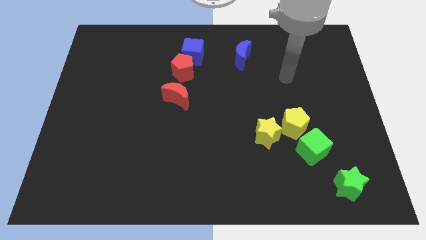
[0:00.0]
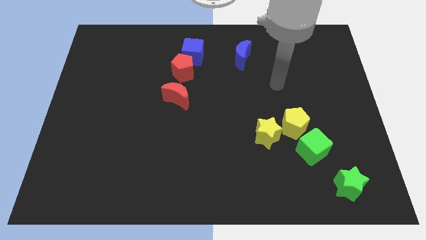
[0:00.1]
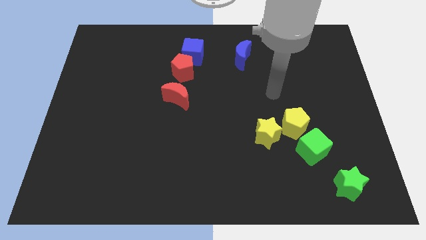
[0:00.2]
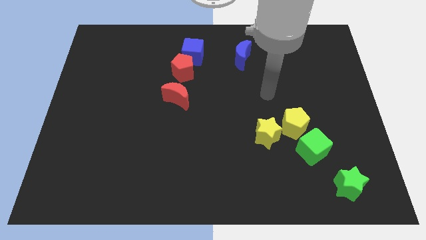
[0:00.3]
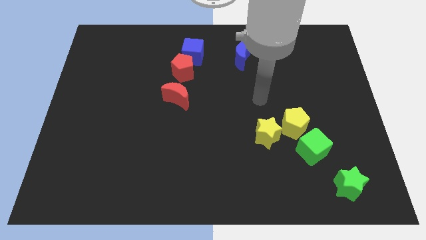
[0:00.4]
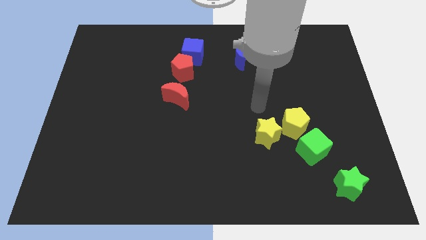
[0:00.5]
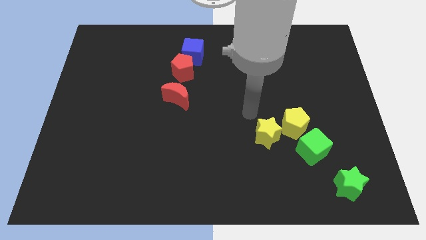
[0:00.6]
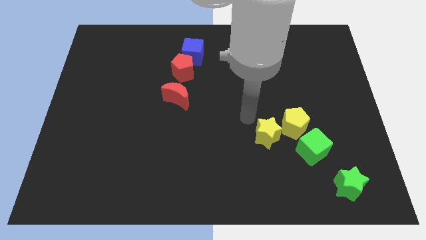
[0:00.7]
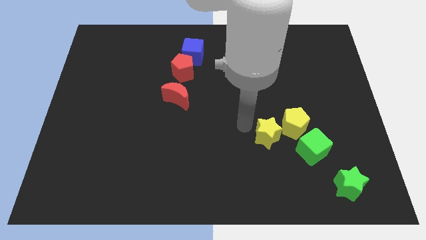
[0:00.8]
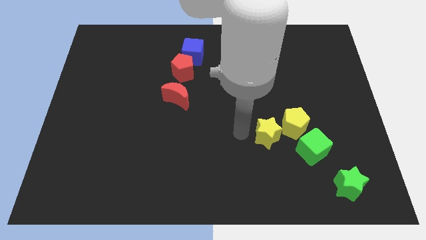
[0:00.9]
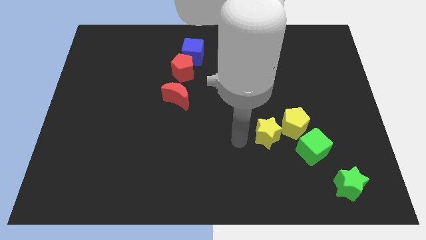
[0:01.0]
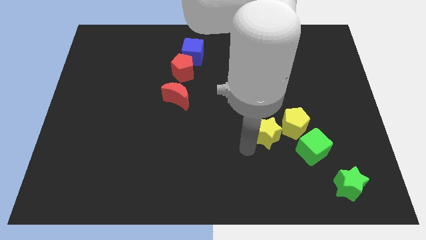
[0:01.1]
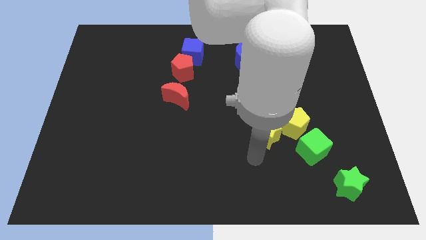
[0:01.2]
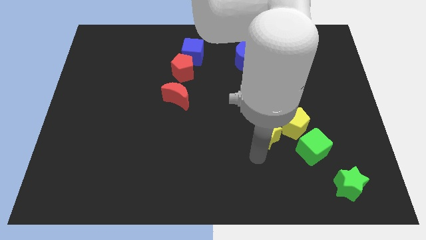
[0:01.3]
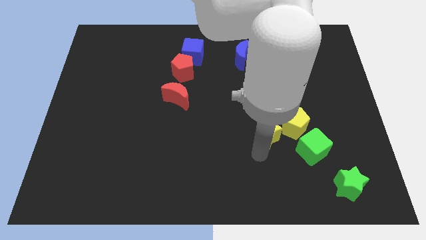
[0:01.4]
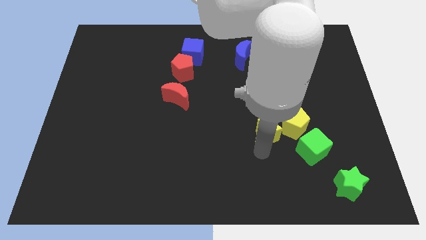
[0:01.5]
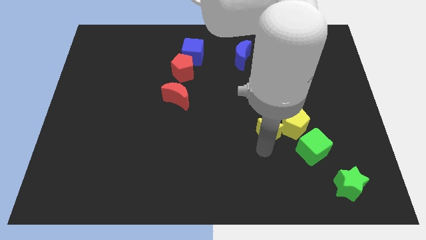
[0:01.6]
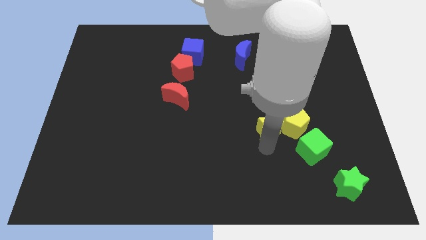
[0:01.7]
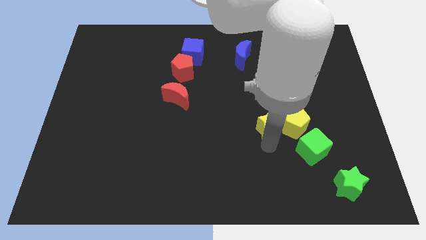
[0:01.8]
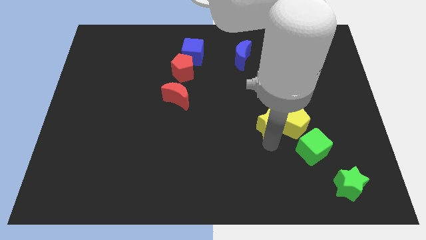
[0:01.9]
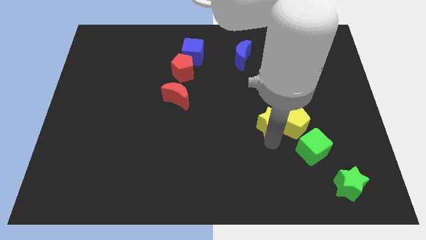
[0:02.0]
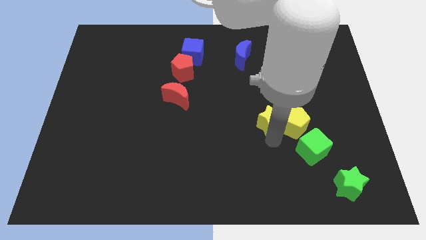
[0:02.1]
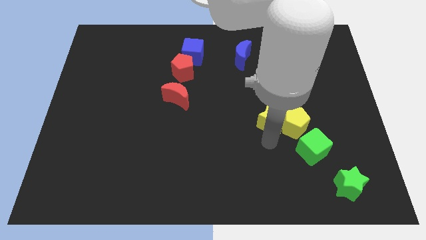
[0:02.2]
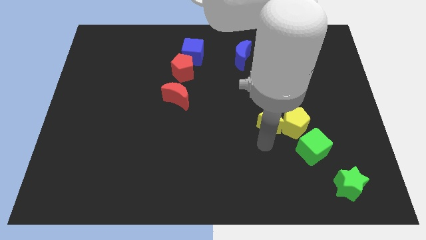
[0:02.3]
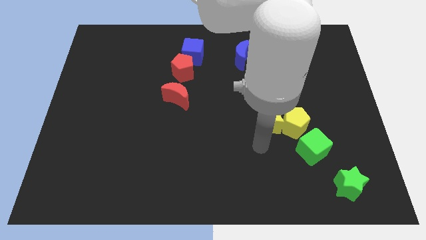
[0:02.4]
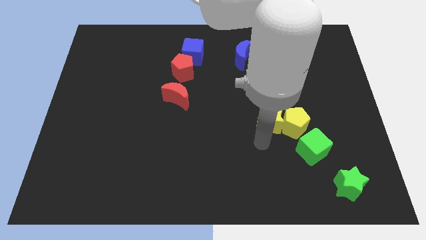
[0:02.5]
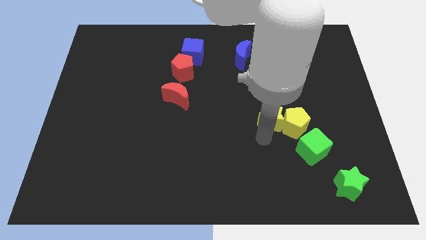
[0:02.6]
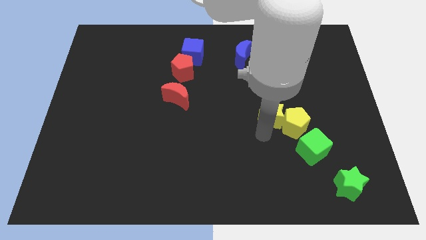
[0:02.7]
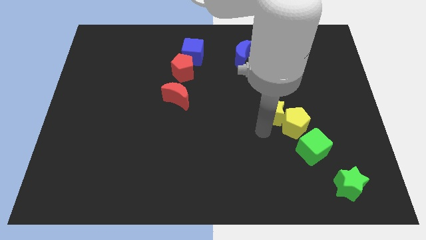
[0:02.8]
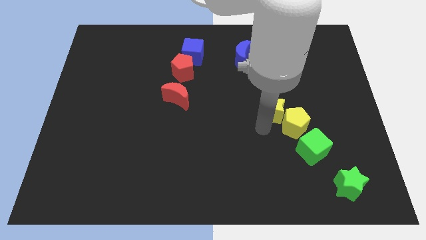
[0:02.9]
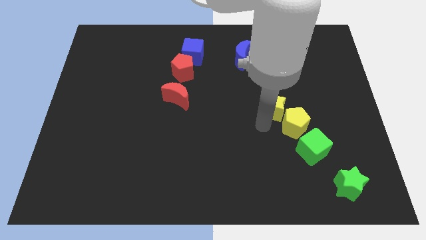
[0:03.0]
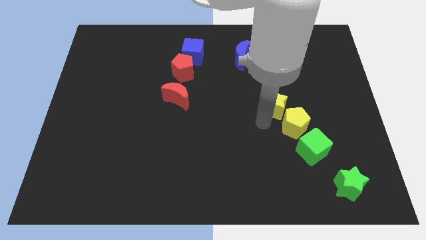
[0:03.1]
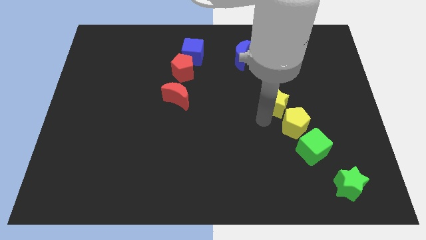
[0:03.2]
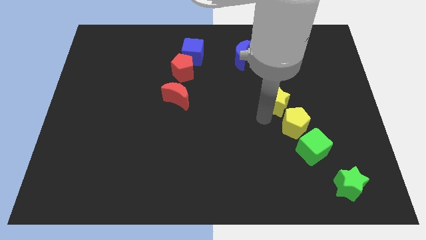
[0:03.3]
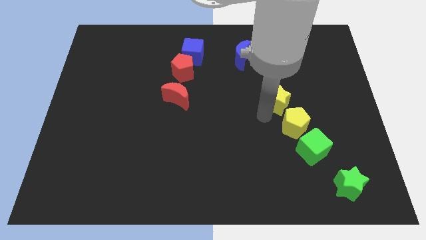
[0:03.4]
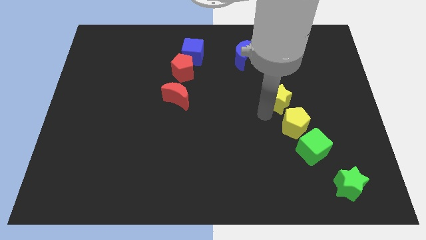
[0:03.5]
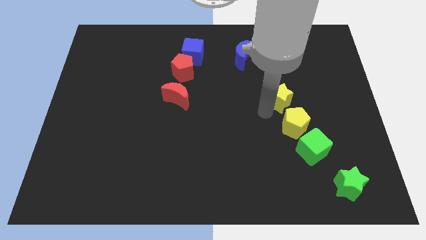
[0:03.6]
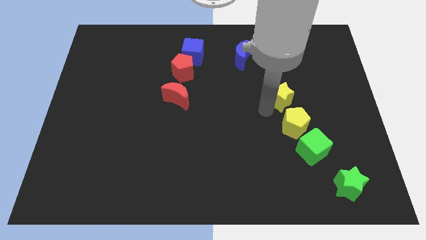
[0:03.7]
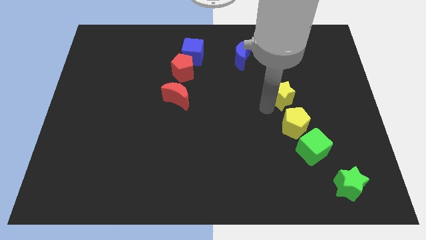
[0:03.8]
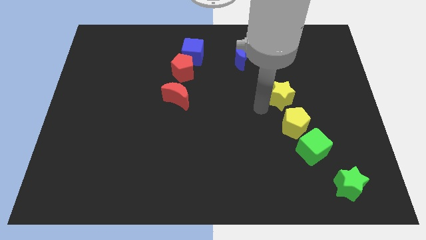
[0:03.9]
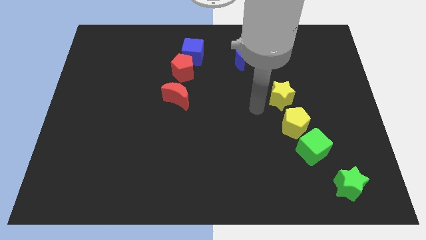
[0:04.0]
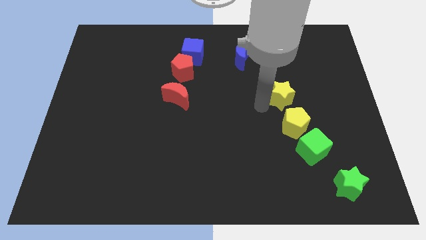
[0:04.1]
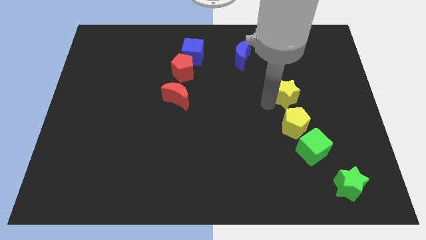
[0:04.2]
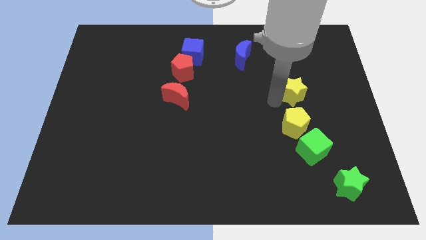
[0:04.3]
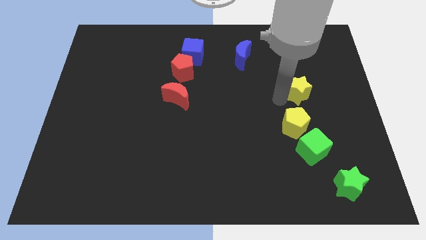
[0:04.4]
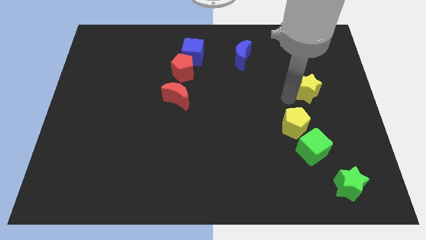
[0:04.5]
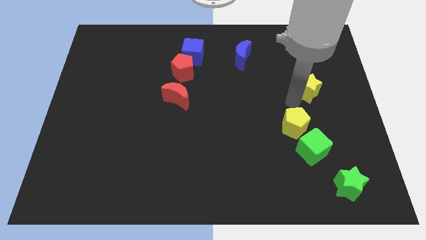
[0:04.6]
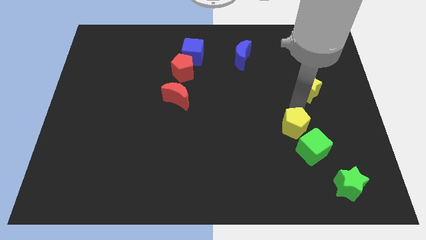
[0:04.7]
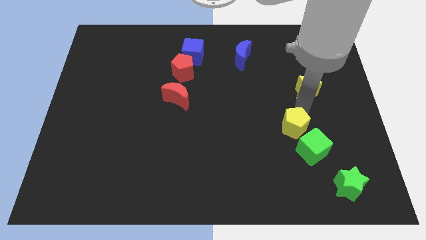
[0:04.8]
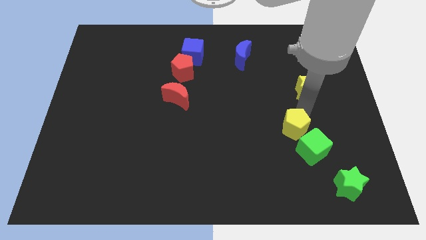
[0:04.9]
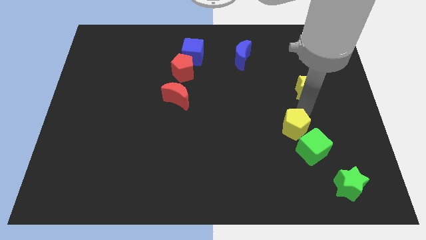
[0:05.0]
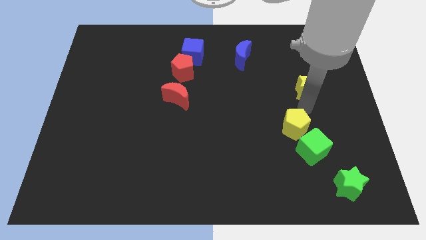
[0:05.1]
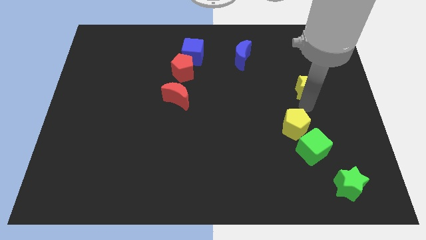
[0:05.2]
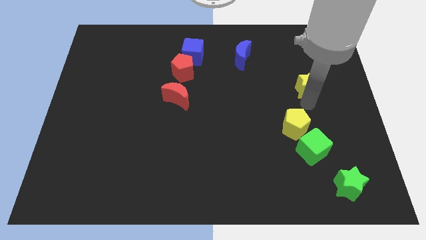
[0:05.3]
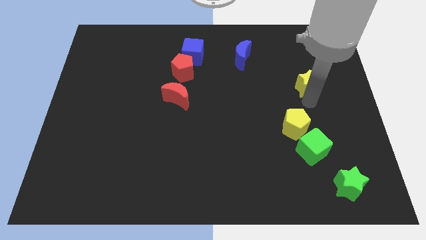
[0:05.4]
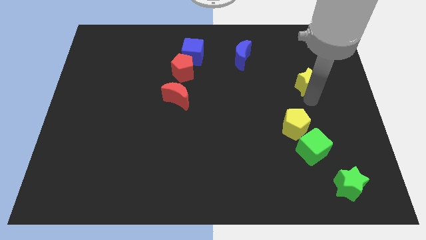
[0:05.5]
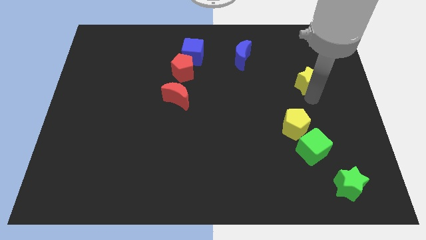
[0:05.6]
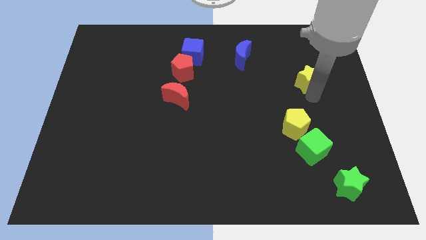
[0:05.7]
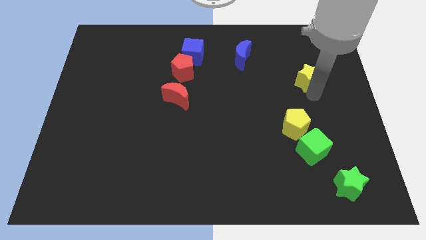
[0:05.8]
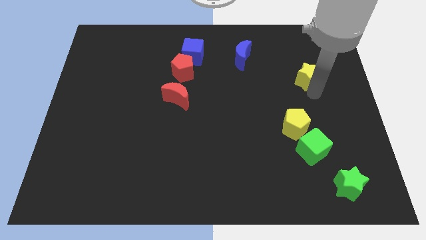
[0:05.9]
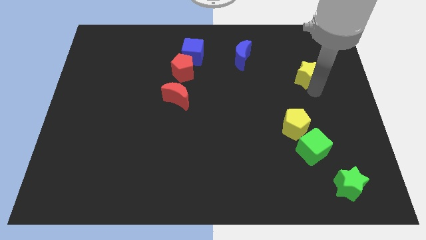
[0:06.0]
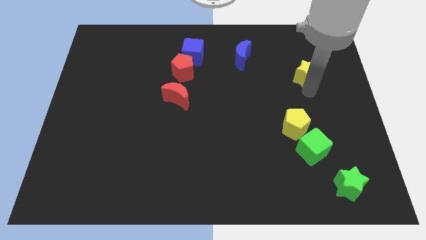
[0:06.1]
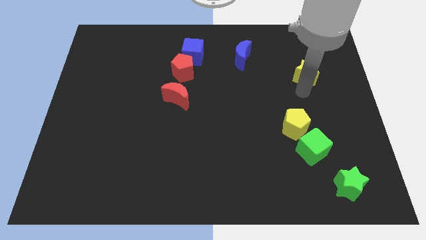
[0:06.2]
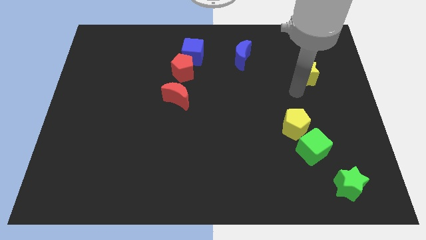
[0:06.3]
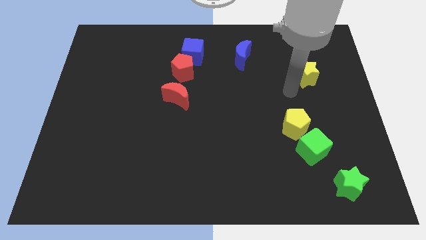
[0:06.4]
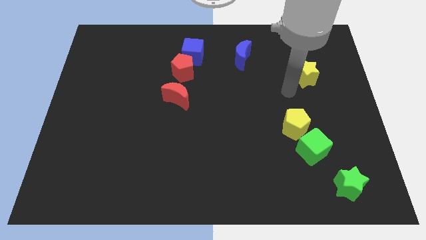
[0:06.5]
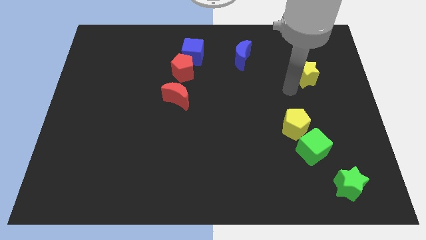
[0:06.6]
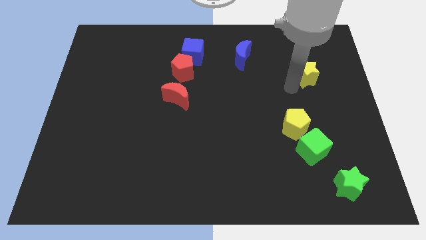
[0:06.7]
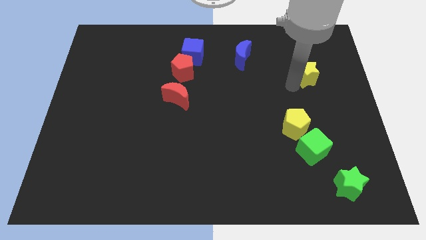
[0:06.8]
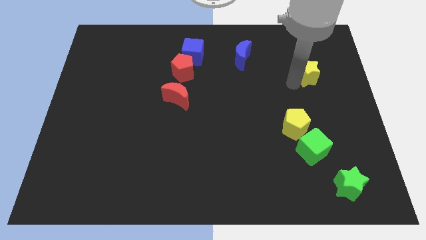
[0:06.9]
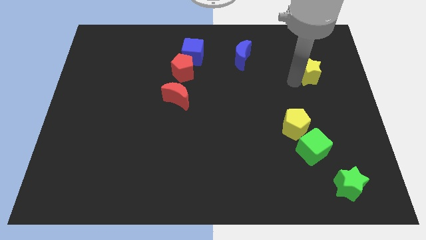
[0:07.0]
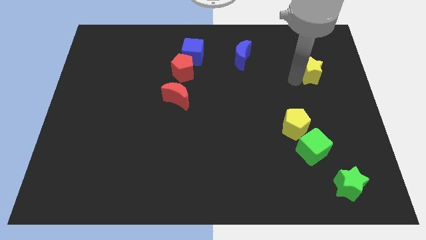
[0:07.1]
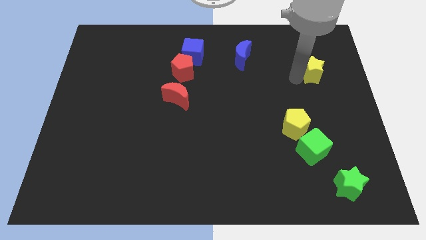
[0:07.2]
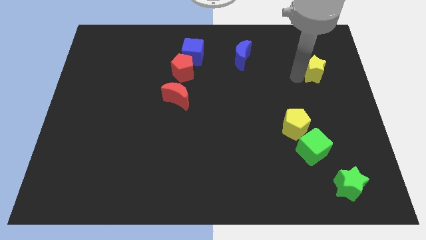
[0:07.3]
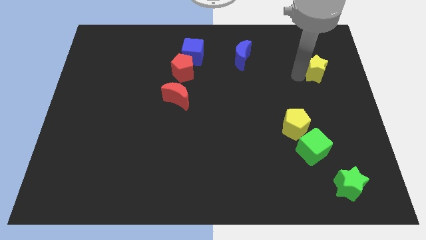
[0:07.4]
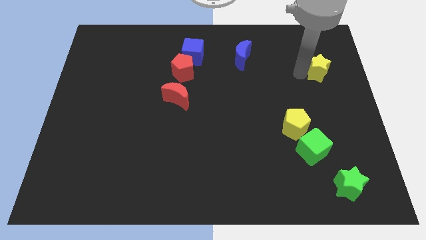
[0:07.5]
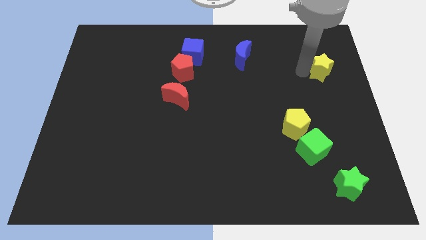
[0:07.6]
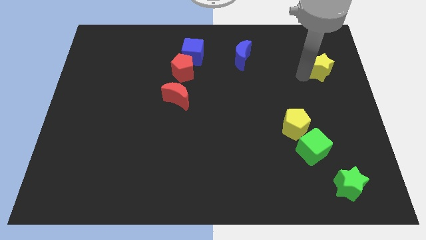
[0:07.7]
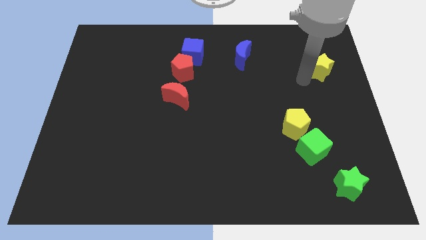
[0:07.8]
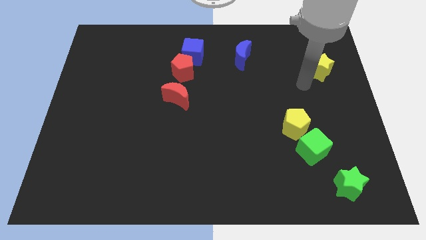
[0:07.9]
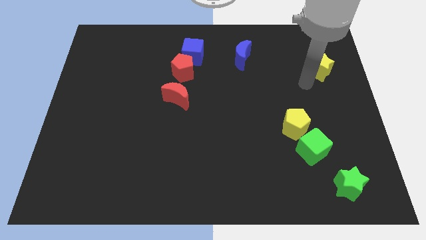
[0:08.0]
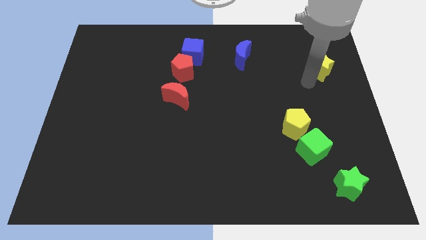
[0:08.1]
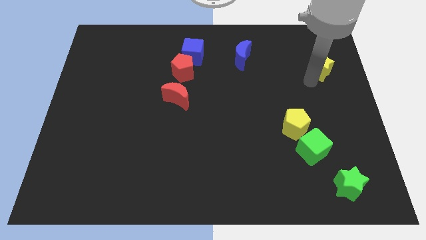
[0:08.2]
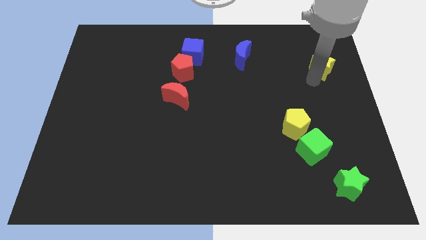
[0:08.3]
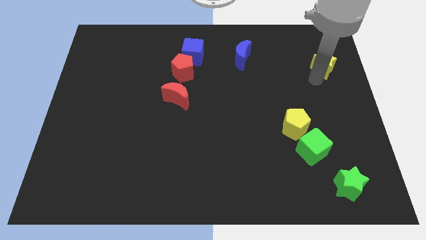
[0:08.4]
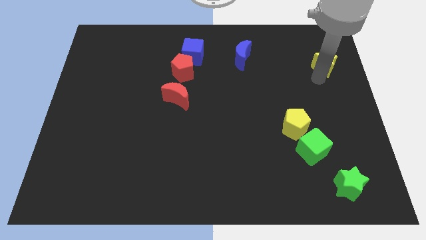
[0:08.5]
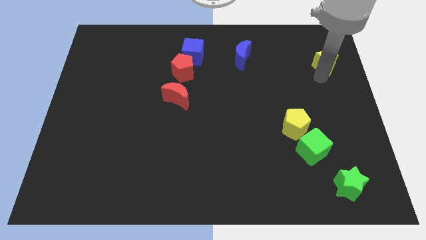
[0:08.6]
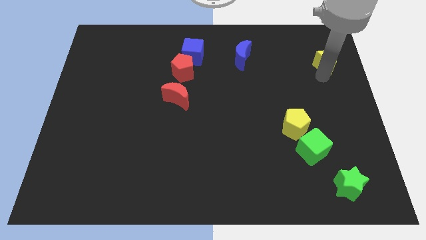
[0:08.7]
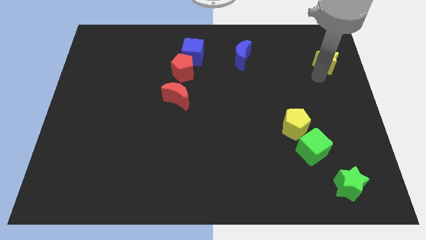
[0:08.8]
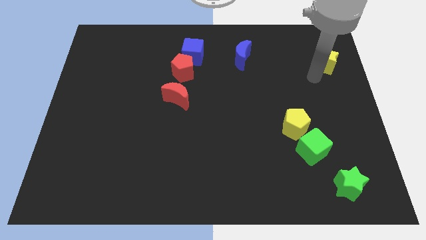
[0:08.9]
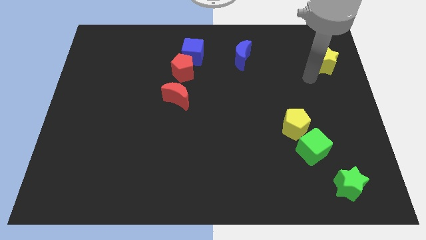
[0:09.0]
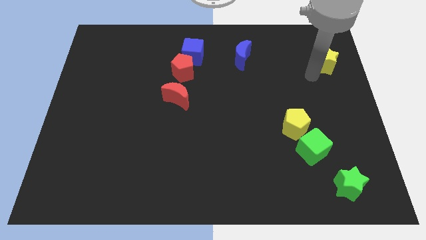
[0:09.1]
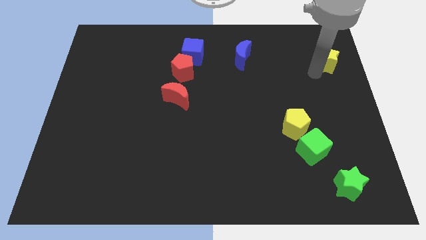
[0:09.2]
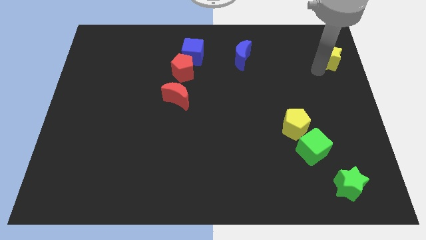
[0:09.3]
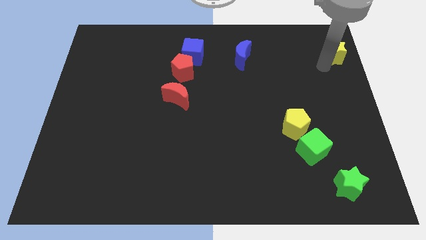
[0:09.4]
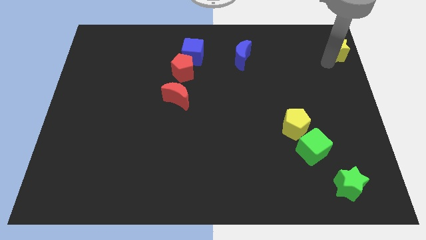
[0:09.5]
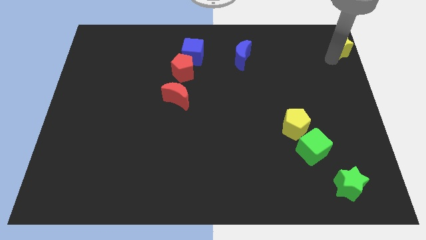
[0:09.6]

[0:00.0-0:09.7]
move the yellow star to the upper right corner
